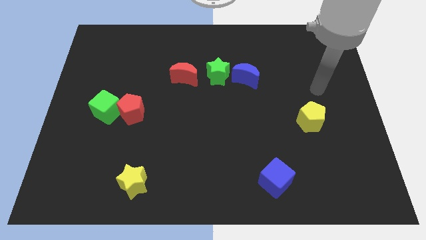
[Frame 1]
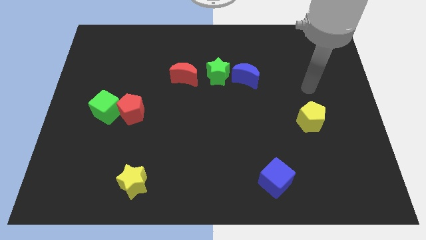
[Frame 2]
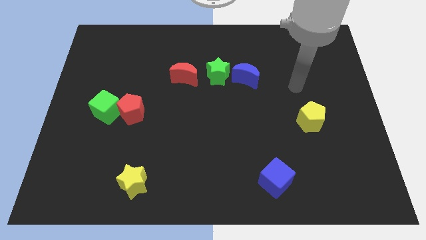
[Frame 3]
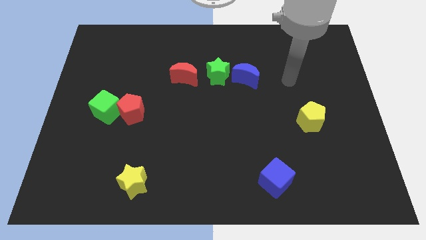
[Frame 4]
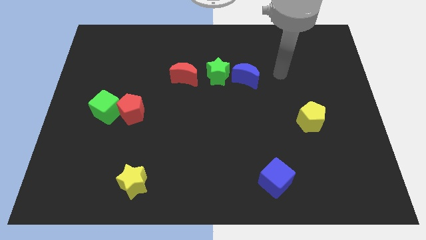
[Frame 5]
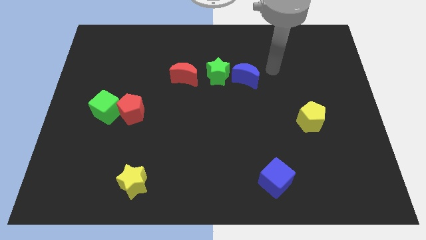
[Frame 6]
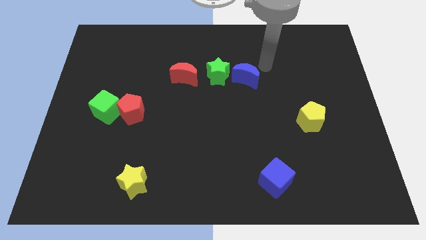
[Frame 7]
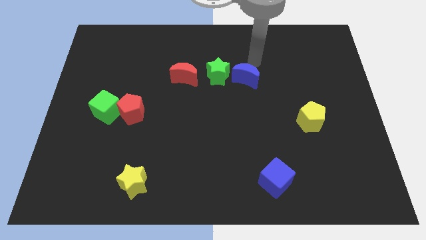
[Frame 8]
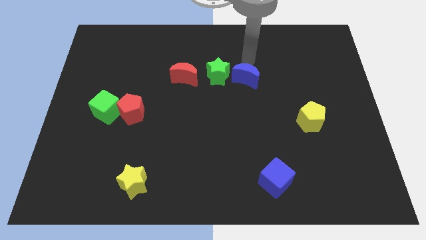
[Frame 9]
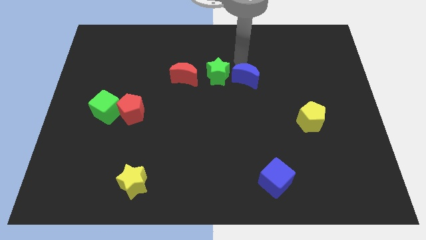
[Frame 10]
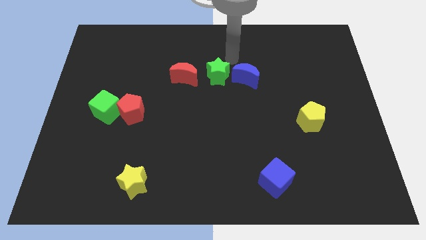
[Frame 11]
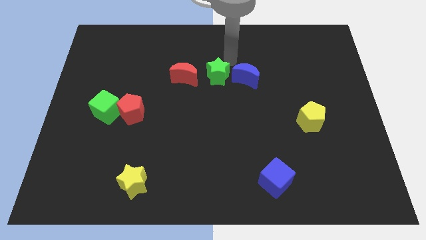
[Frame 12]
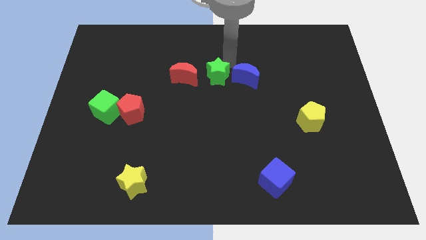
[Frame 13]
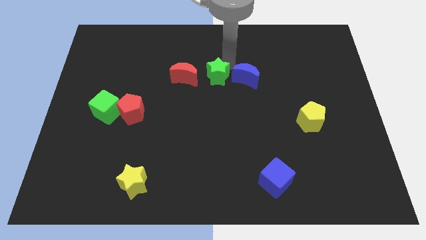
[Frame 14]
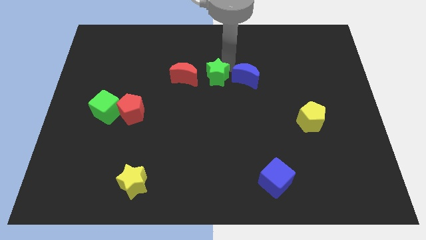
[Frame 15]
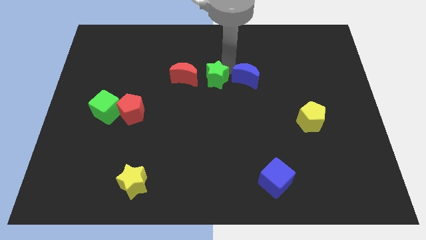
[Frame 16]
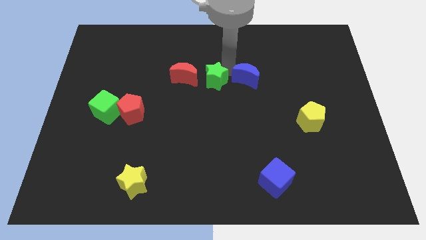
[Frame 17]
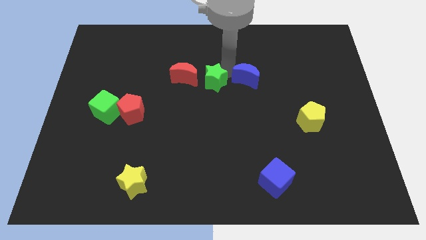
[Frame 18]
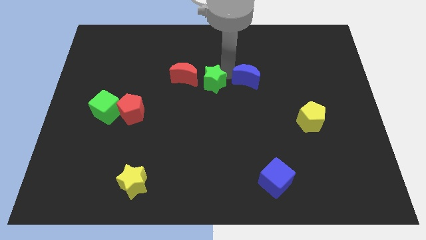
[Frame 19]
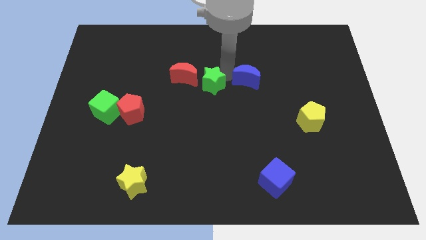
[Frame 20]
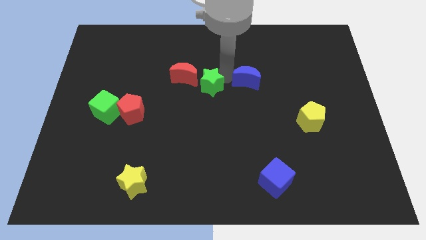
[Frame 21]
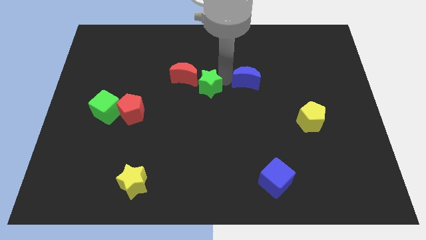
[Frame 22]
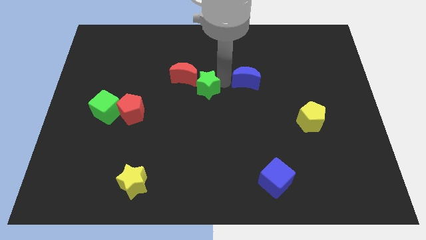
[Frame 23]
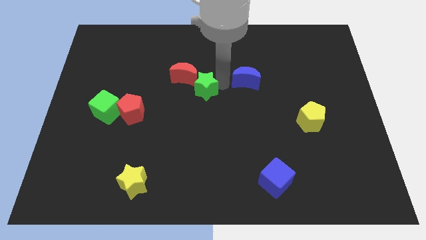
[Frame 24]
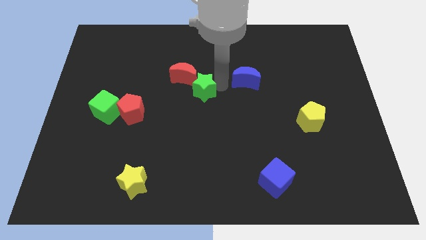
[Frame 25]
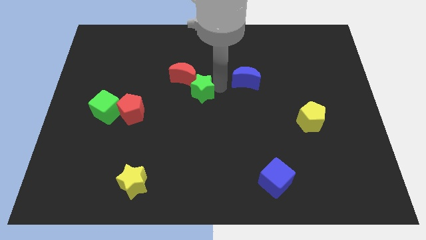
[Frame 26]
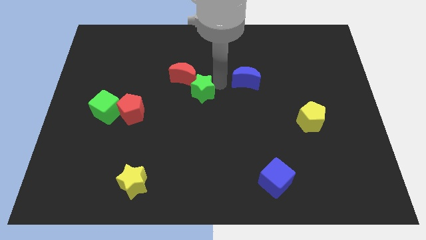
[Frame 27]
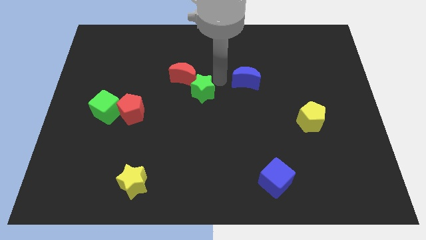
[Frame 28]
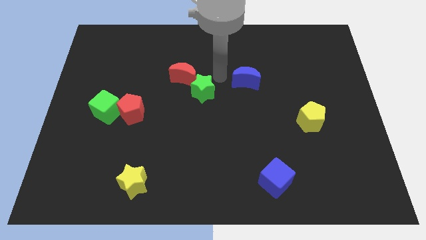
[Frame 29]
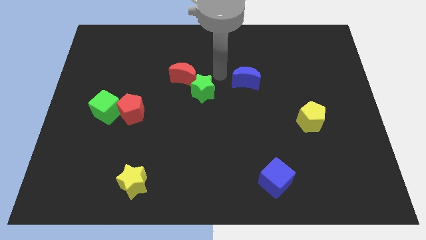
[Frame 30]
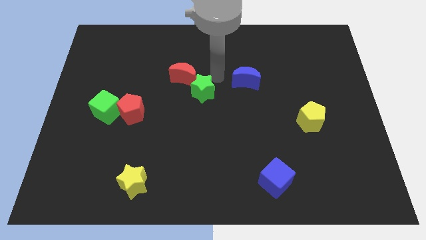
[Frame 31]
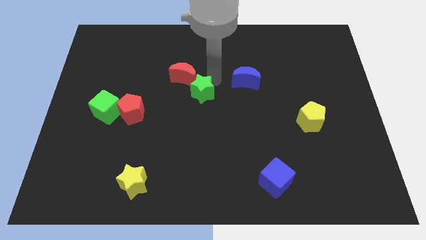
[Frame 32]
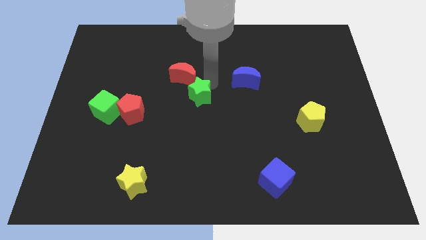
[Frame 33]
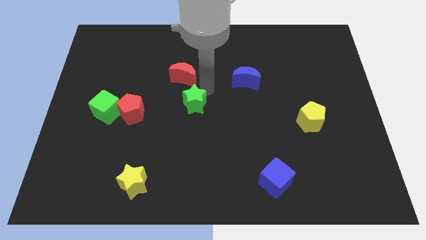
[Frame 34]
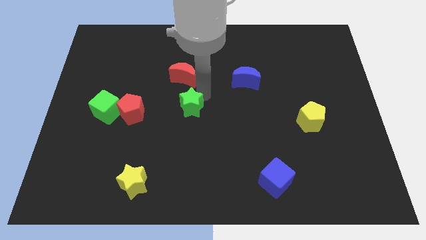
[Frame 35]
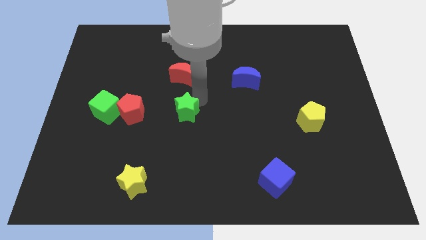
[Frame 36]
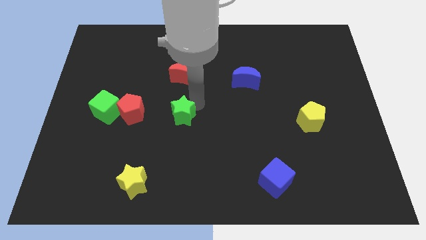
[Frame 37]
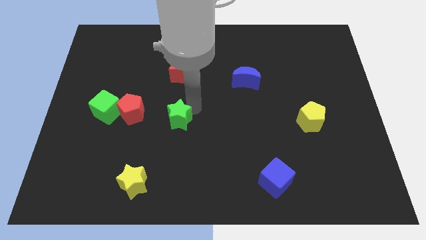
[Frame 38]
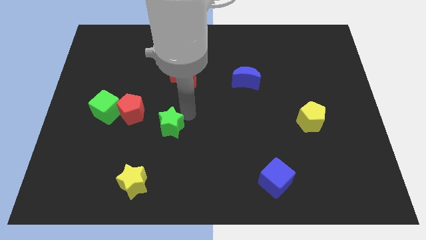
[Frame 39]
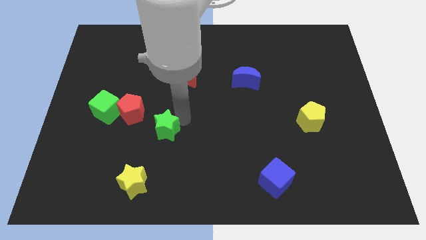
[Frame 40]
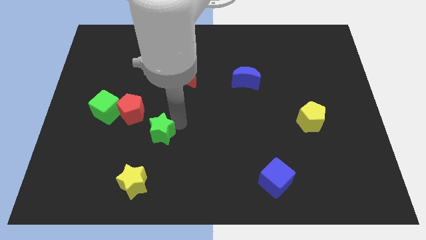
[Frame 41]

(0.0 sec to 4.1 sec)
push the green star downwards and to the left diagonally

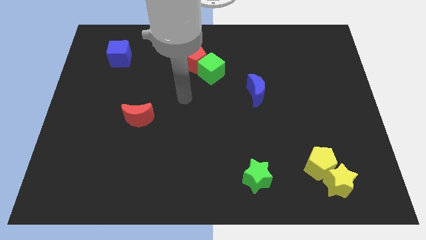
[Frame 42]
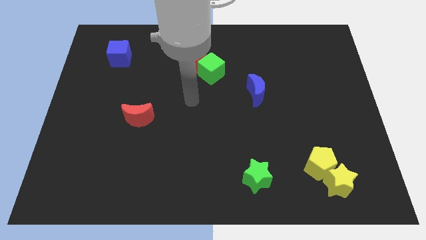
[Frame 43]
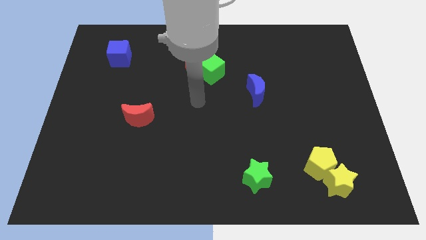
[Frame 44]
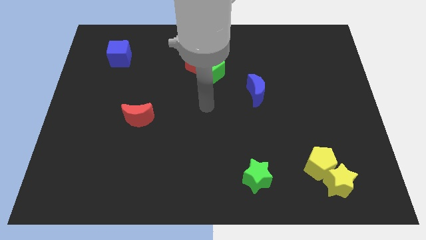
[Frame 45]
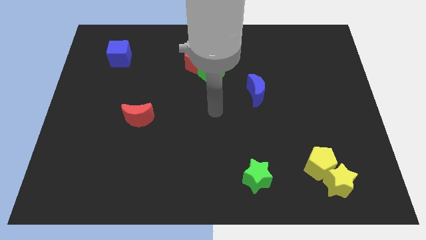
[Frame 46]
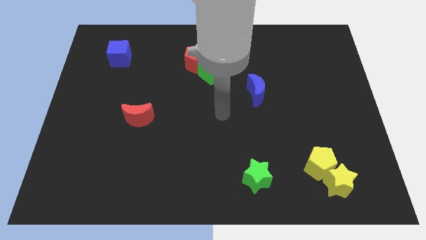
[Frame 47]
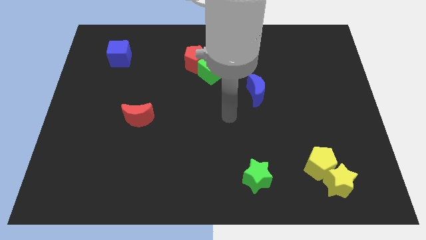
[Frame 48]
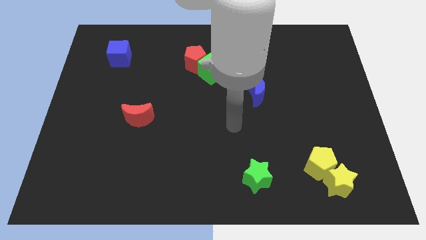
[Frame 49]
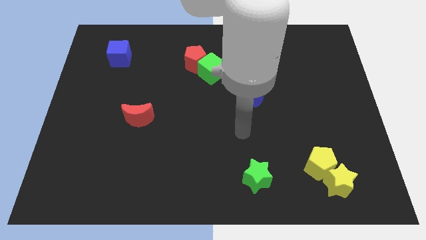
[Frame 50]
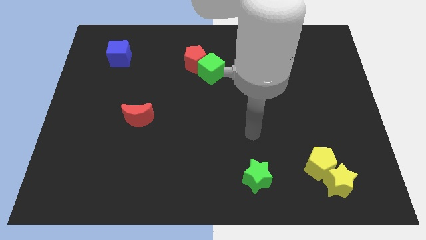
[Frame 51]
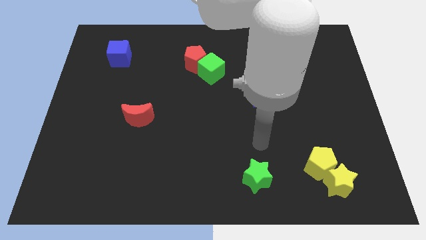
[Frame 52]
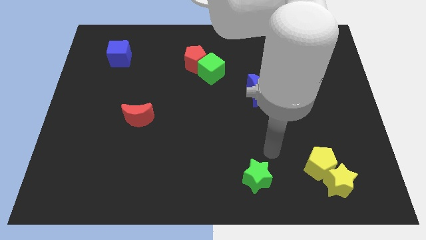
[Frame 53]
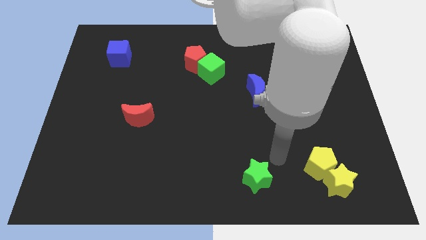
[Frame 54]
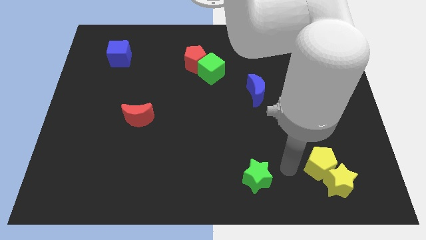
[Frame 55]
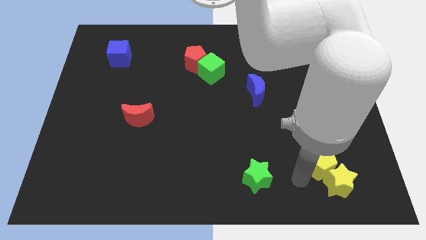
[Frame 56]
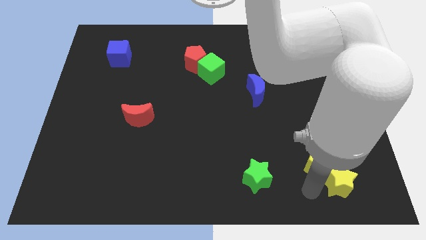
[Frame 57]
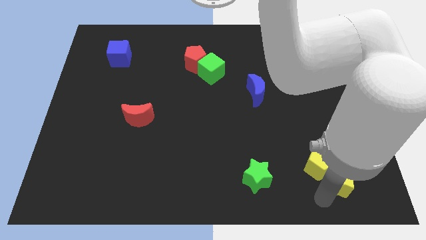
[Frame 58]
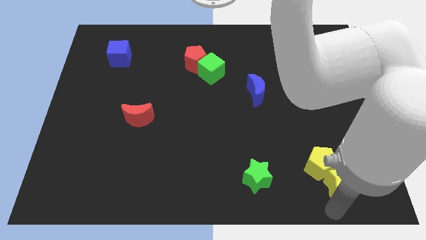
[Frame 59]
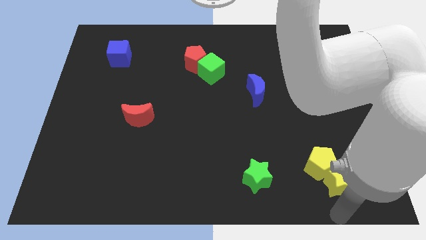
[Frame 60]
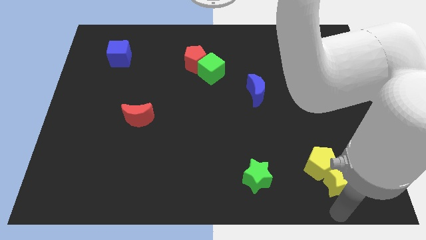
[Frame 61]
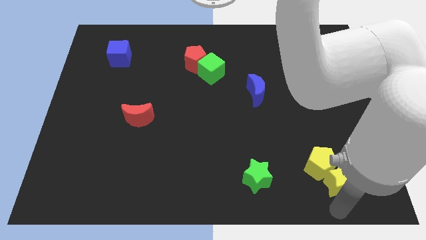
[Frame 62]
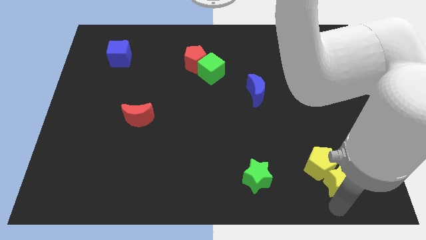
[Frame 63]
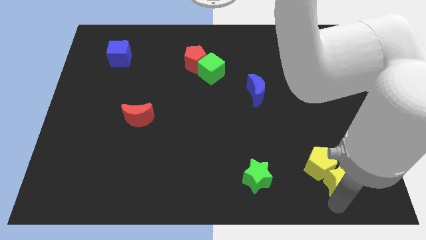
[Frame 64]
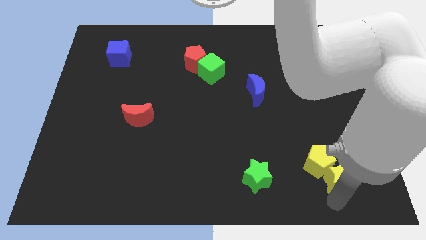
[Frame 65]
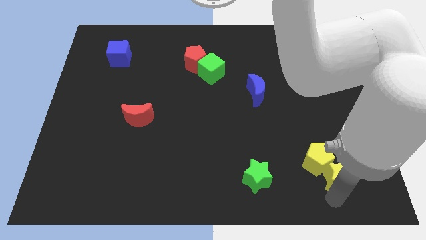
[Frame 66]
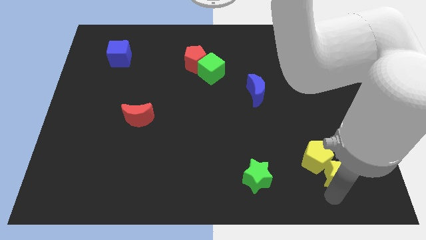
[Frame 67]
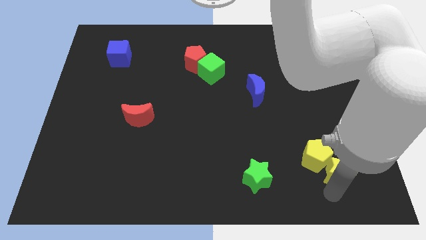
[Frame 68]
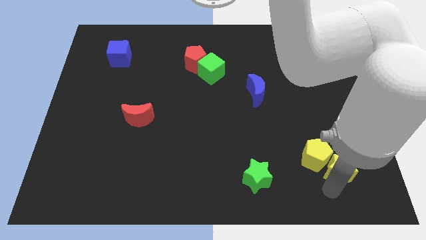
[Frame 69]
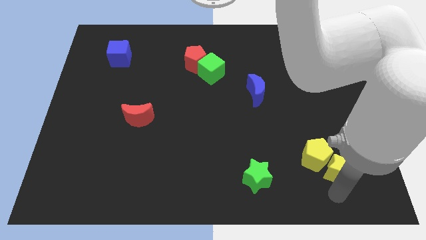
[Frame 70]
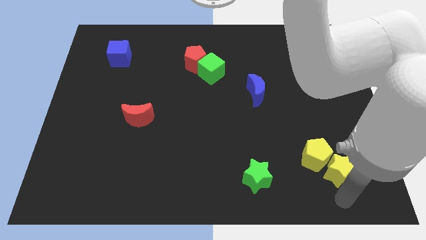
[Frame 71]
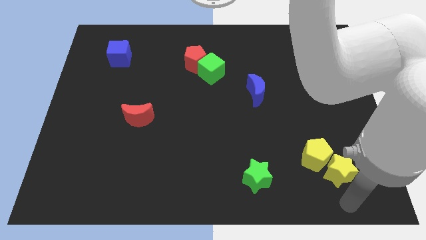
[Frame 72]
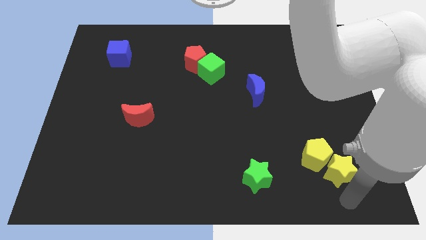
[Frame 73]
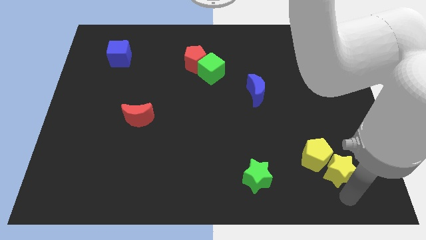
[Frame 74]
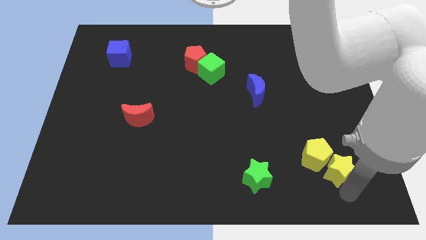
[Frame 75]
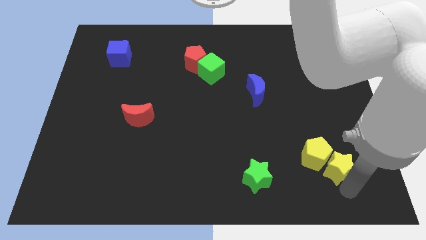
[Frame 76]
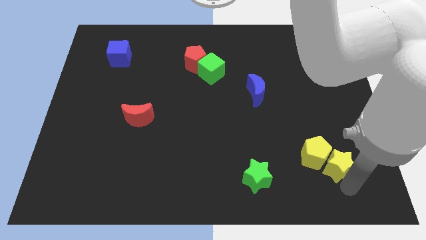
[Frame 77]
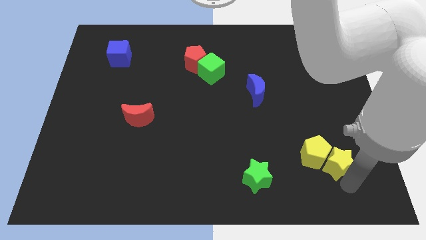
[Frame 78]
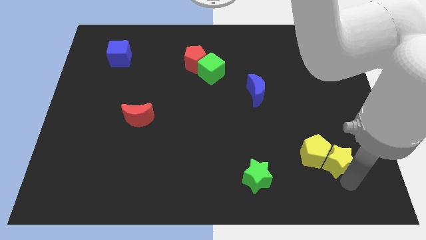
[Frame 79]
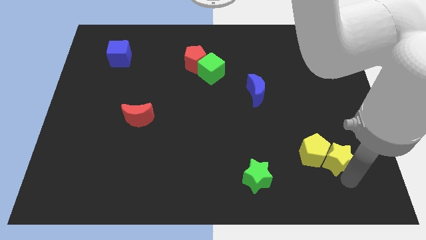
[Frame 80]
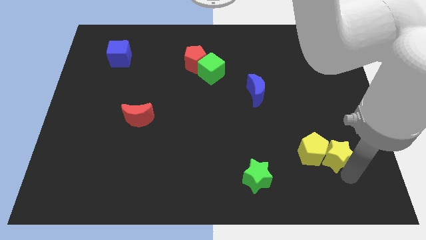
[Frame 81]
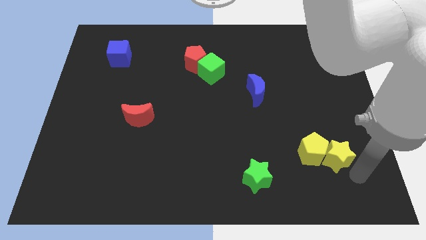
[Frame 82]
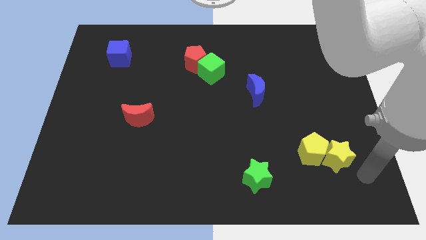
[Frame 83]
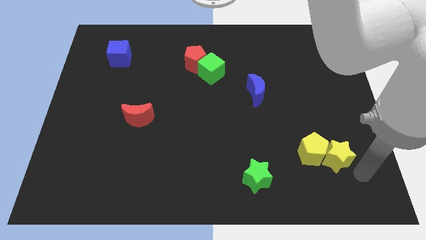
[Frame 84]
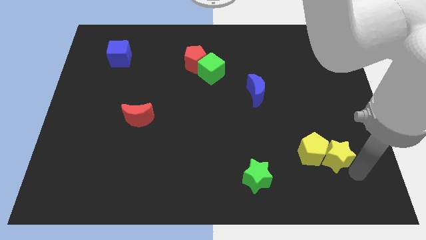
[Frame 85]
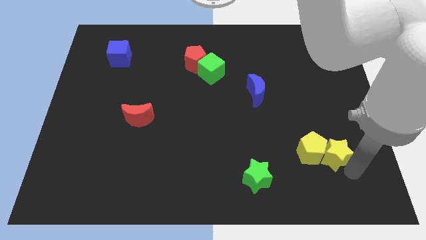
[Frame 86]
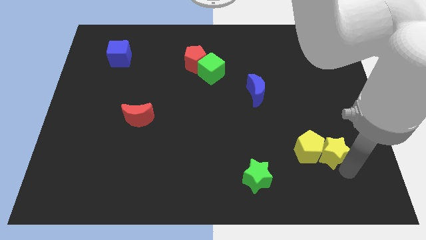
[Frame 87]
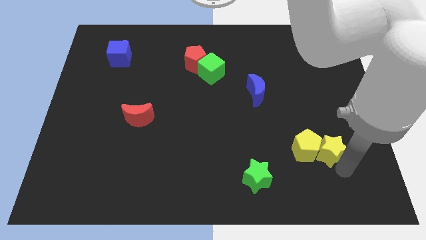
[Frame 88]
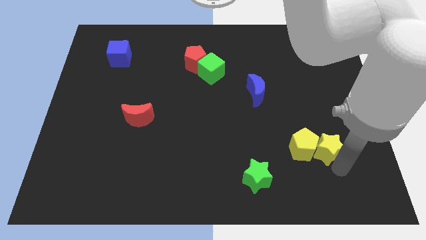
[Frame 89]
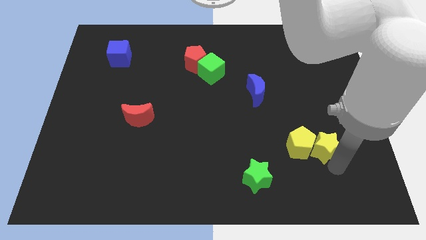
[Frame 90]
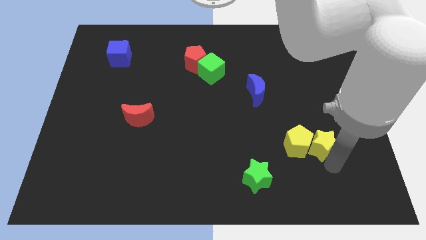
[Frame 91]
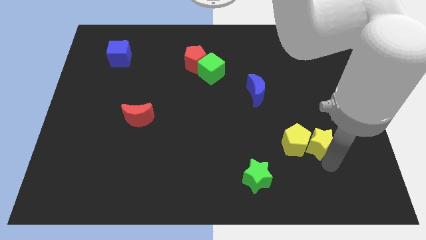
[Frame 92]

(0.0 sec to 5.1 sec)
slightly slide the yellow star diagonally up and left
